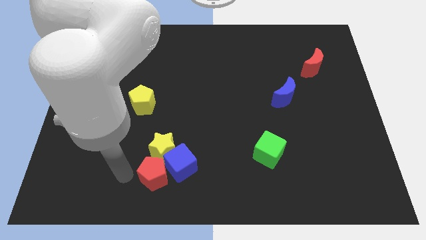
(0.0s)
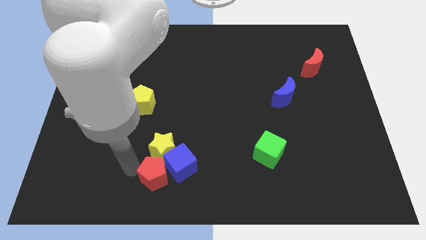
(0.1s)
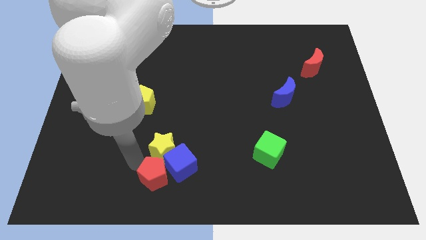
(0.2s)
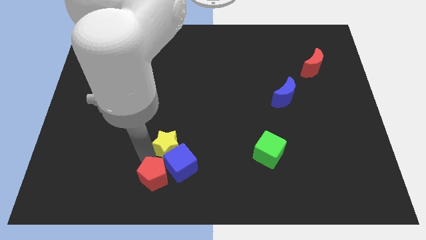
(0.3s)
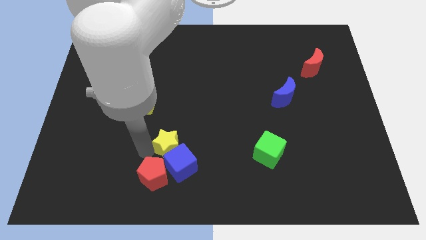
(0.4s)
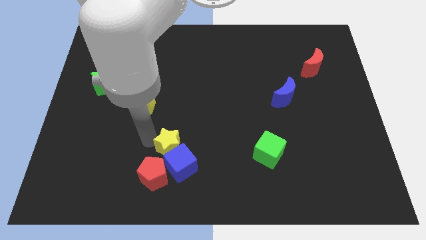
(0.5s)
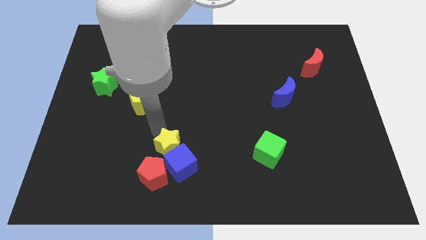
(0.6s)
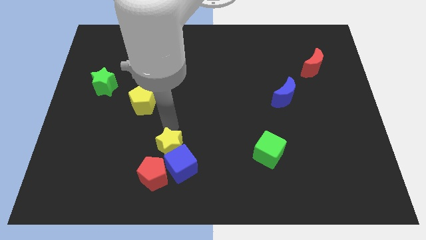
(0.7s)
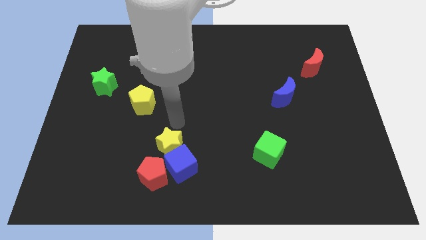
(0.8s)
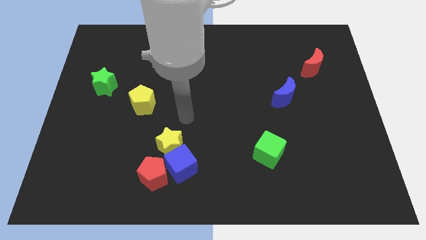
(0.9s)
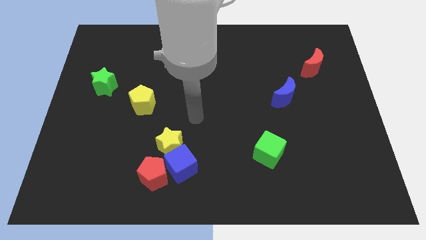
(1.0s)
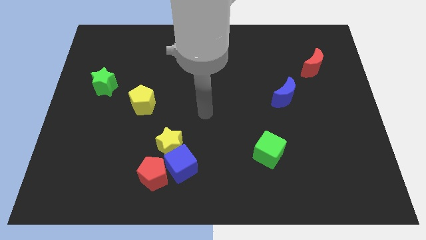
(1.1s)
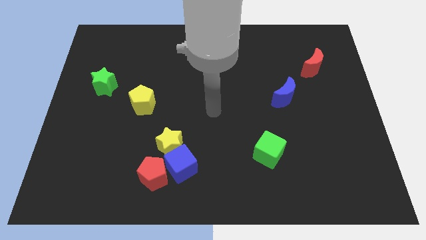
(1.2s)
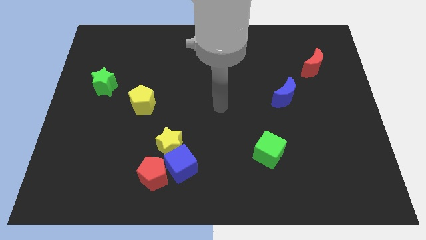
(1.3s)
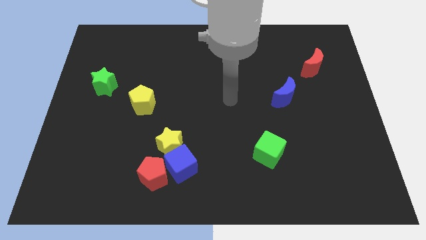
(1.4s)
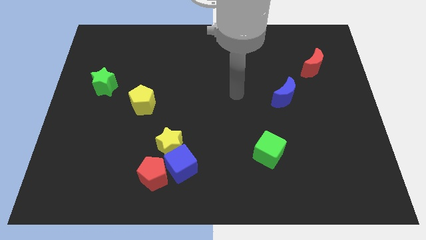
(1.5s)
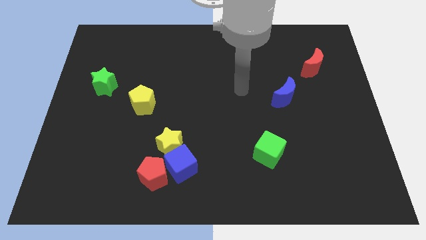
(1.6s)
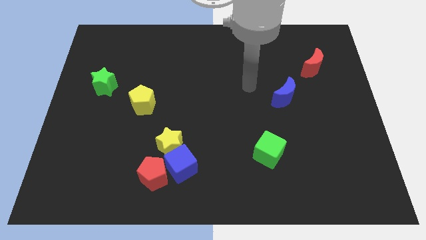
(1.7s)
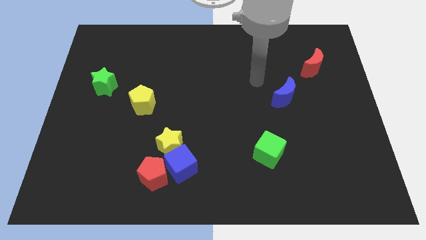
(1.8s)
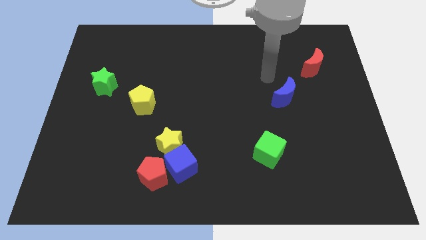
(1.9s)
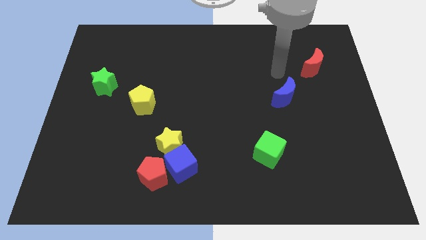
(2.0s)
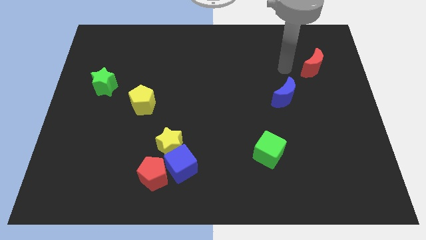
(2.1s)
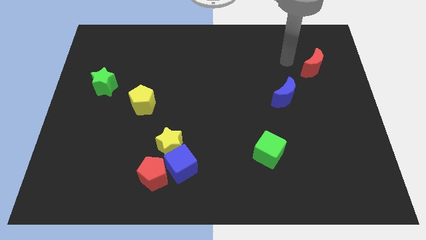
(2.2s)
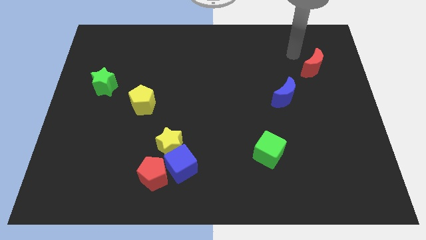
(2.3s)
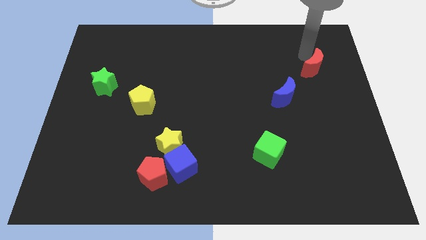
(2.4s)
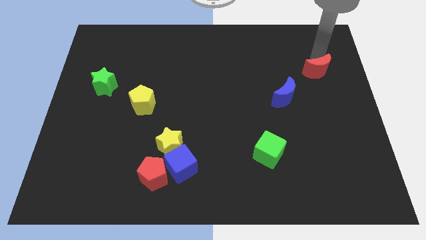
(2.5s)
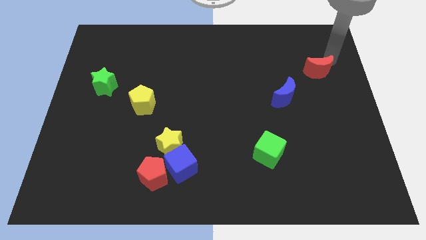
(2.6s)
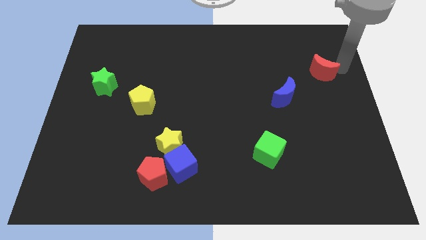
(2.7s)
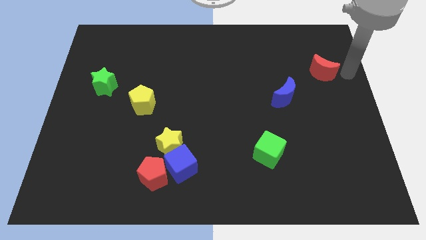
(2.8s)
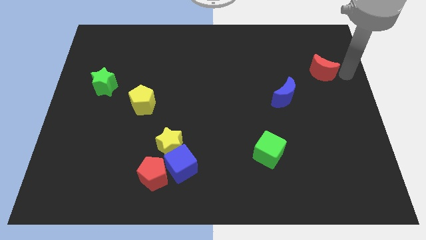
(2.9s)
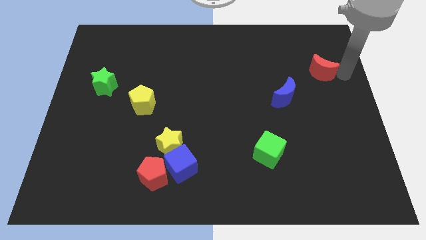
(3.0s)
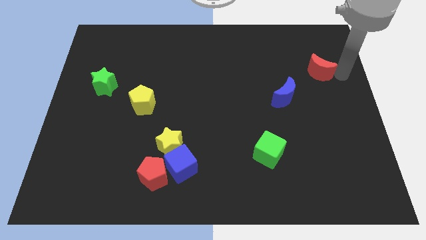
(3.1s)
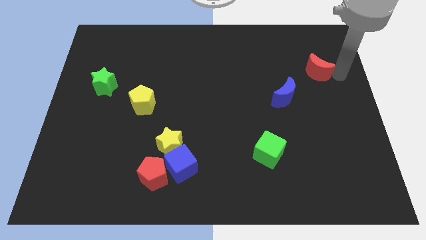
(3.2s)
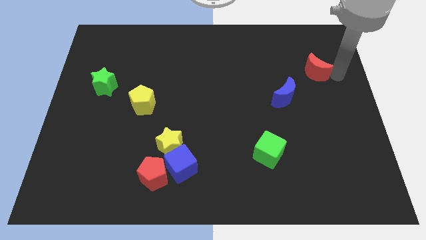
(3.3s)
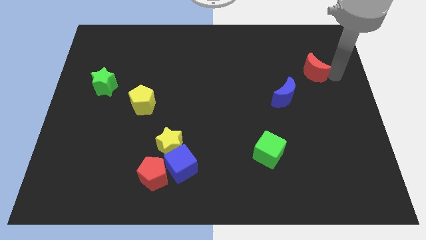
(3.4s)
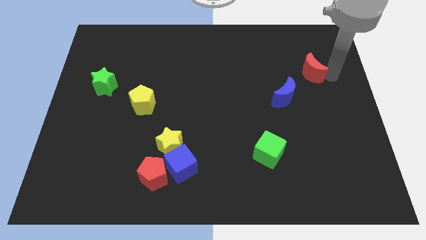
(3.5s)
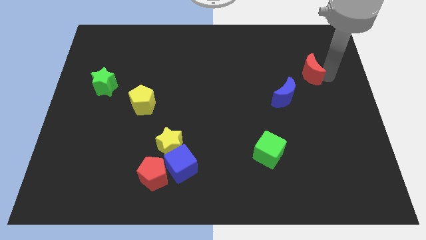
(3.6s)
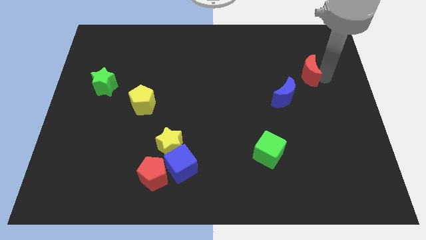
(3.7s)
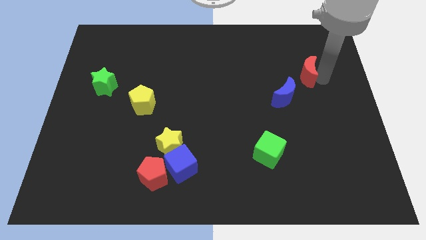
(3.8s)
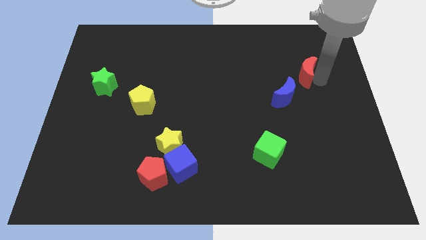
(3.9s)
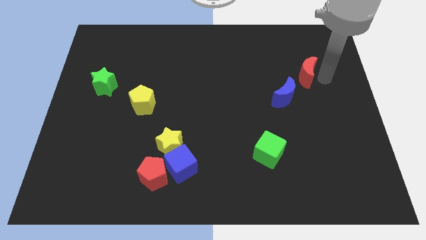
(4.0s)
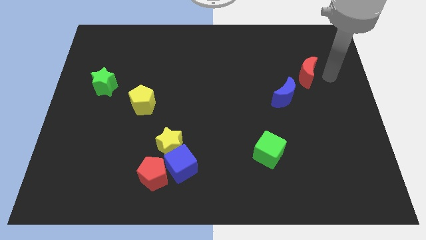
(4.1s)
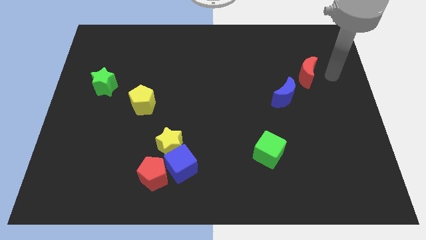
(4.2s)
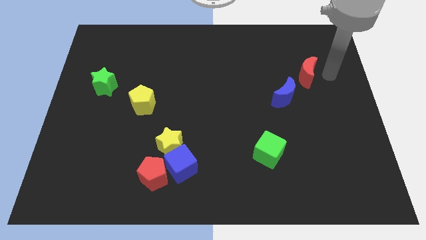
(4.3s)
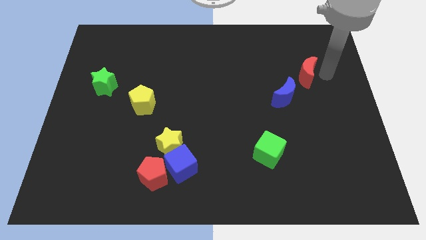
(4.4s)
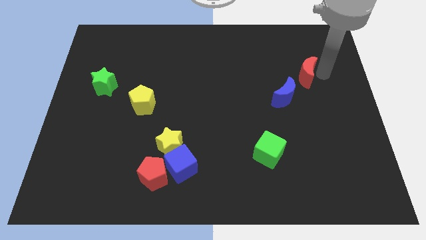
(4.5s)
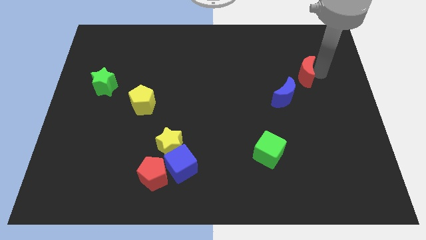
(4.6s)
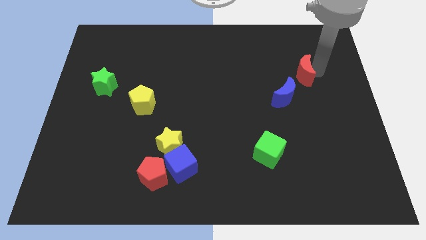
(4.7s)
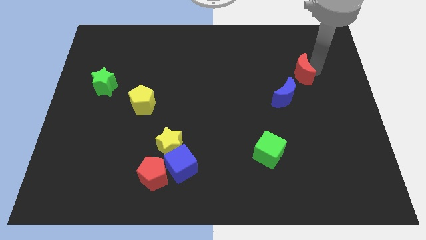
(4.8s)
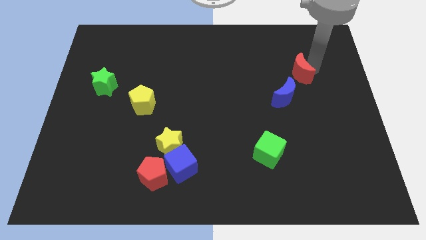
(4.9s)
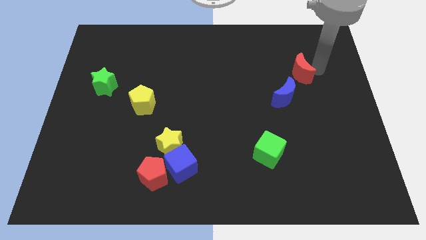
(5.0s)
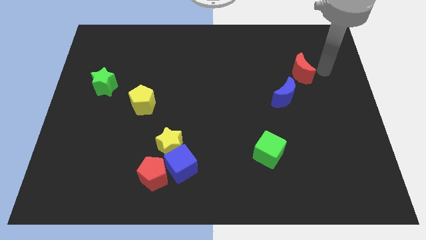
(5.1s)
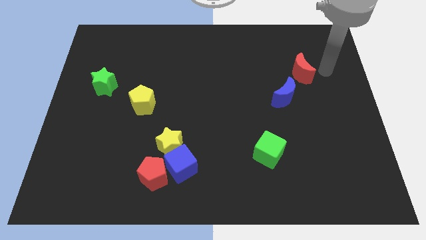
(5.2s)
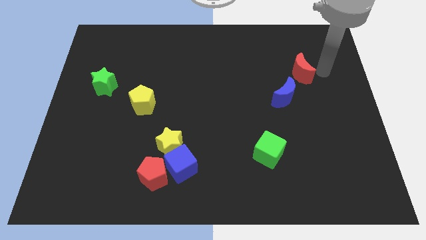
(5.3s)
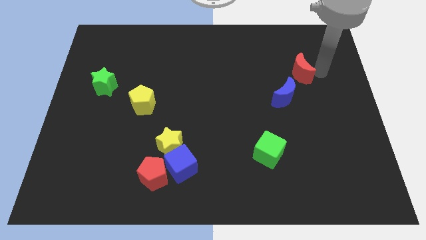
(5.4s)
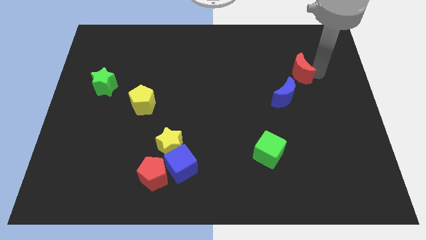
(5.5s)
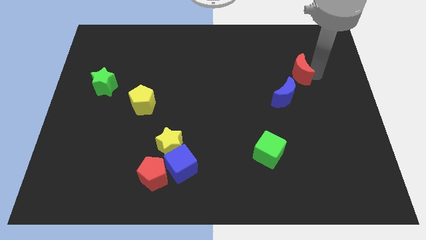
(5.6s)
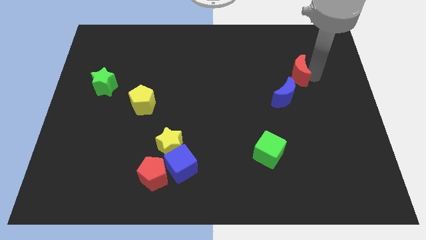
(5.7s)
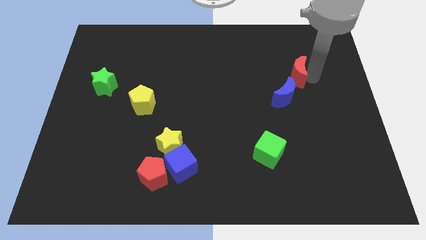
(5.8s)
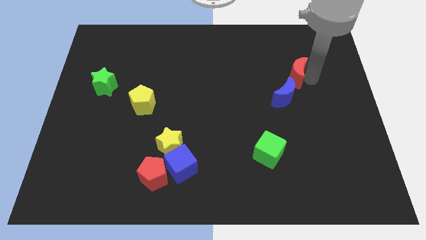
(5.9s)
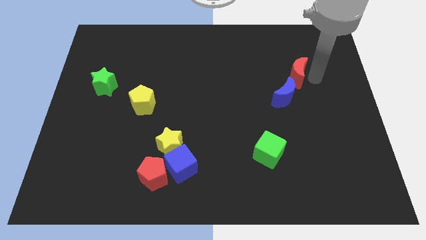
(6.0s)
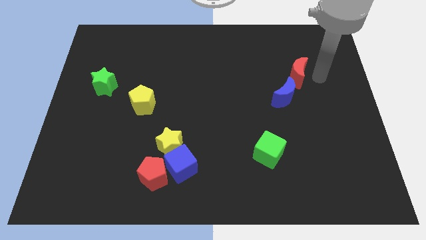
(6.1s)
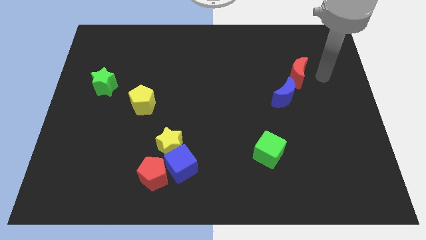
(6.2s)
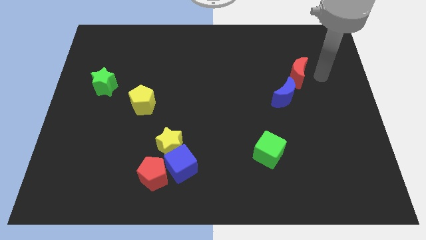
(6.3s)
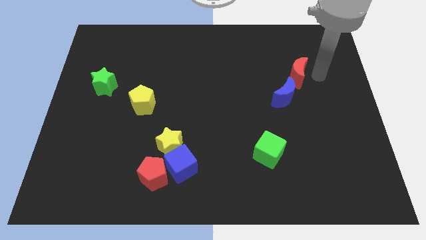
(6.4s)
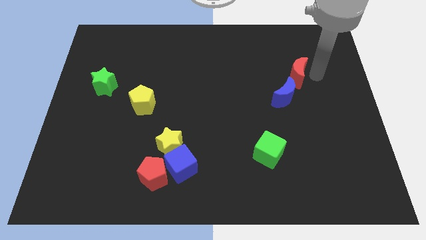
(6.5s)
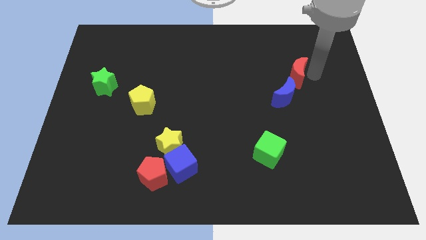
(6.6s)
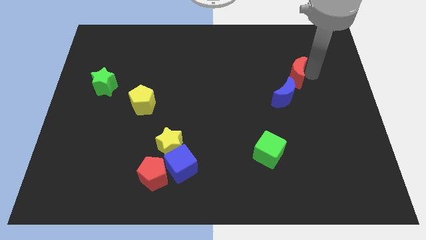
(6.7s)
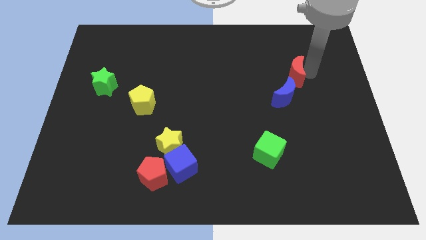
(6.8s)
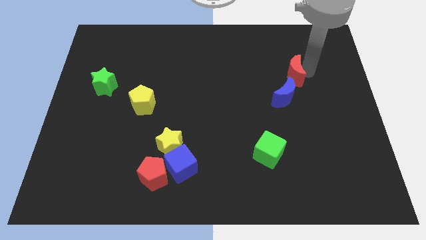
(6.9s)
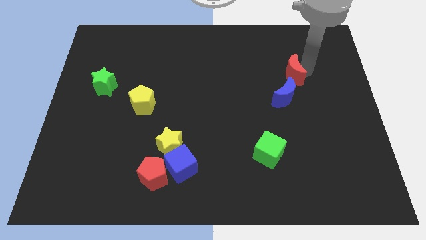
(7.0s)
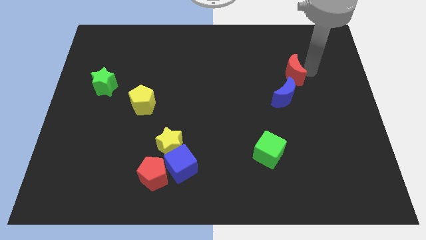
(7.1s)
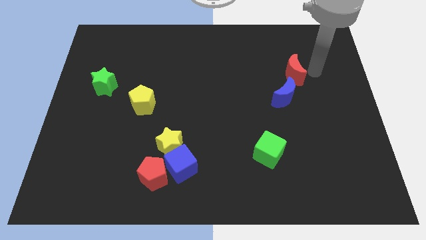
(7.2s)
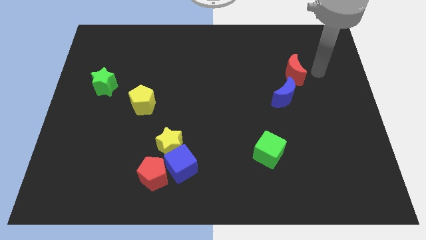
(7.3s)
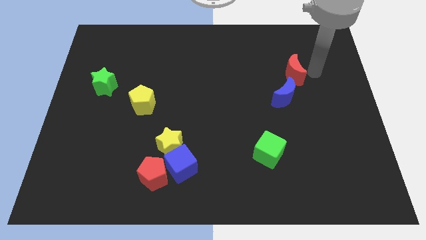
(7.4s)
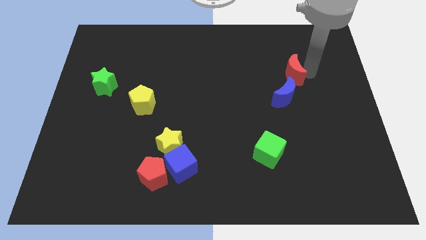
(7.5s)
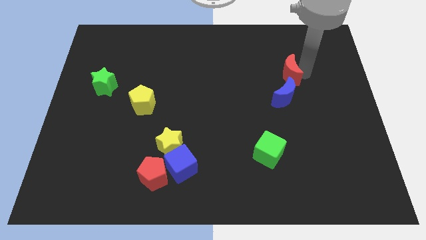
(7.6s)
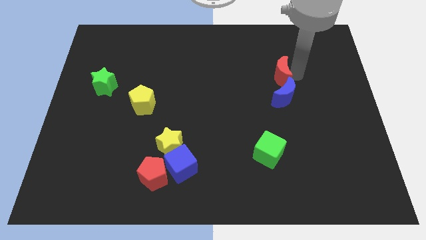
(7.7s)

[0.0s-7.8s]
slightly move the red moon to the left

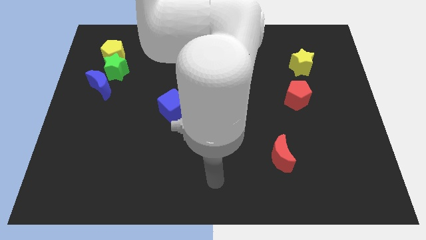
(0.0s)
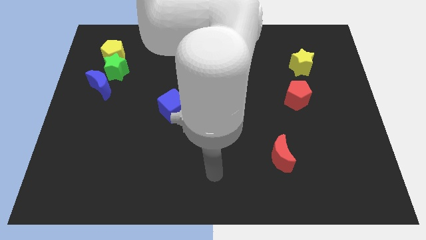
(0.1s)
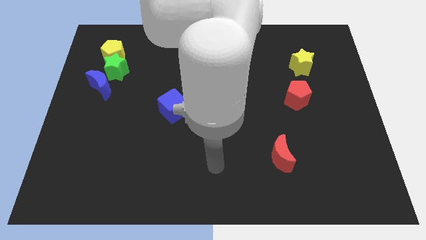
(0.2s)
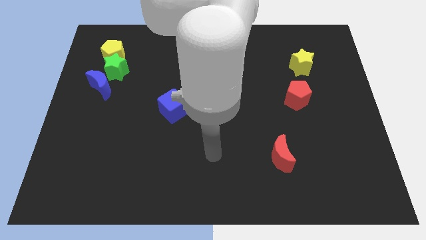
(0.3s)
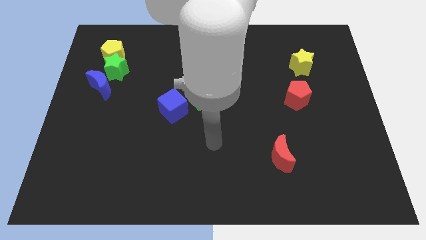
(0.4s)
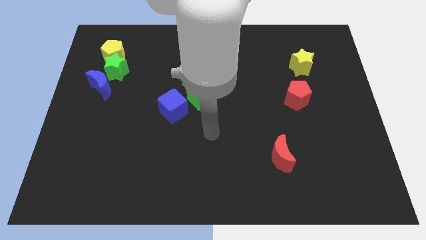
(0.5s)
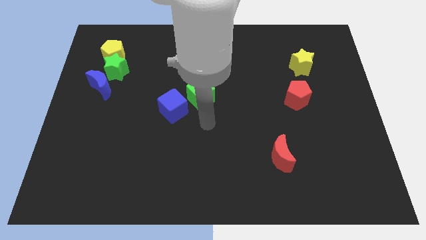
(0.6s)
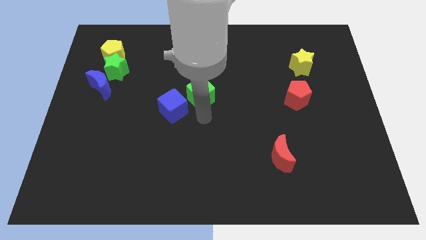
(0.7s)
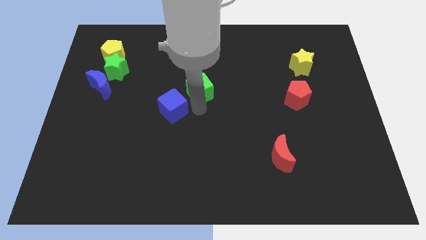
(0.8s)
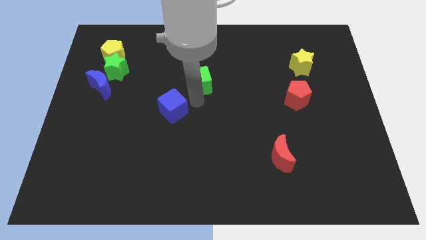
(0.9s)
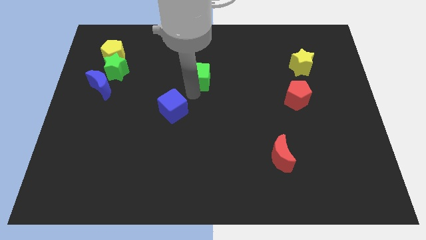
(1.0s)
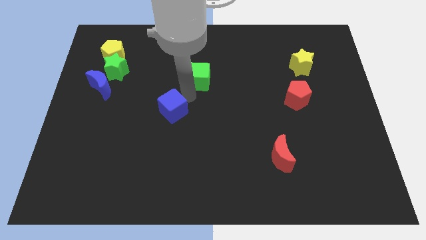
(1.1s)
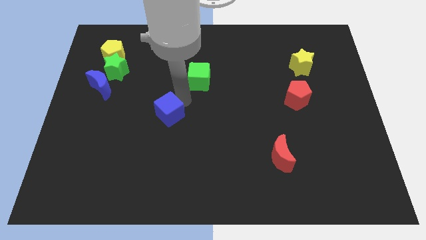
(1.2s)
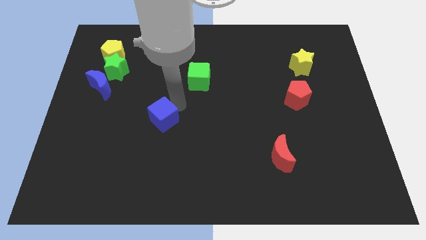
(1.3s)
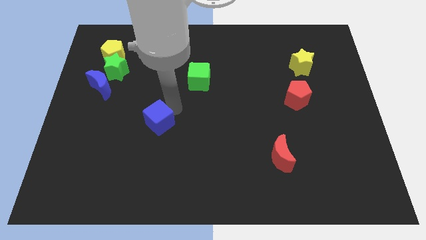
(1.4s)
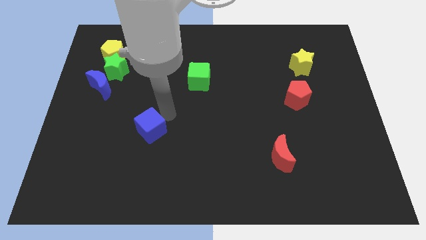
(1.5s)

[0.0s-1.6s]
slightly push the blue cube diagonally down and to the left
